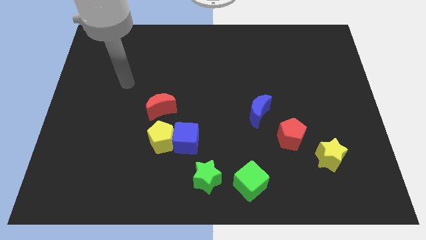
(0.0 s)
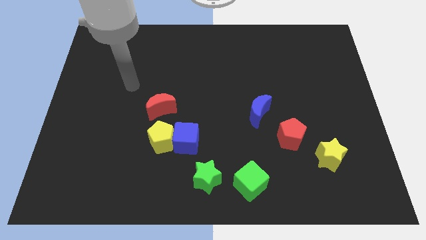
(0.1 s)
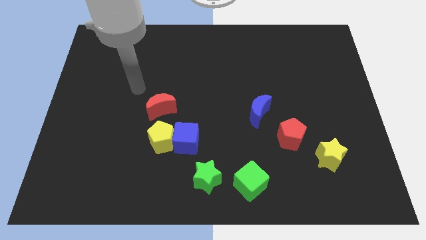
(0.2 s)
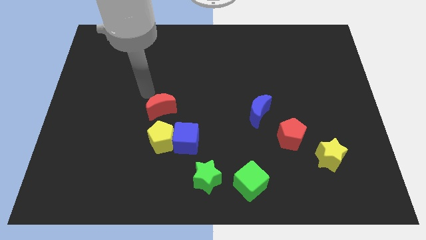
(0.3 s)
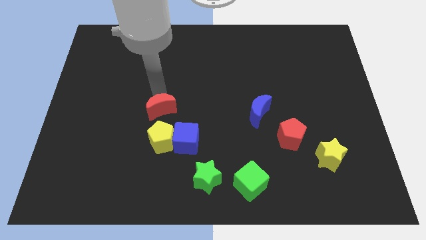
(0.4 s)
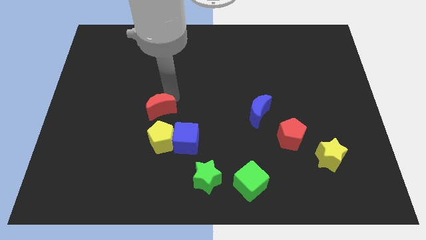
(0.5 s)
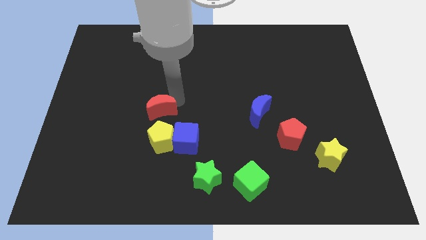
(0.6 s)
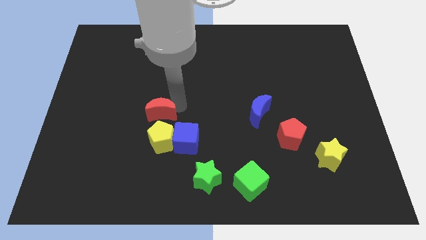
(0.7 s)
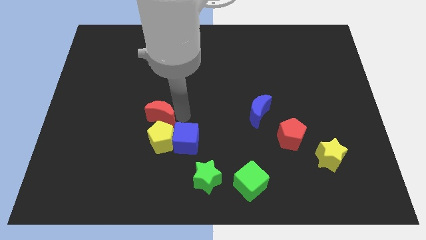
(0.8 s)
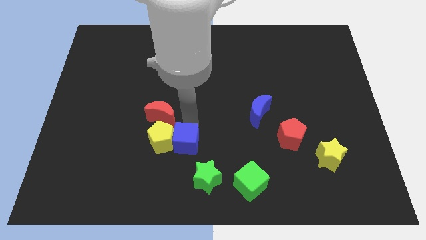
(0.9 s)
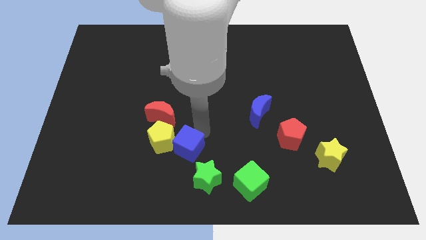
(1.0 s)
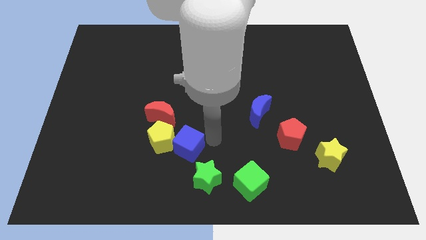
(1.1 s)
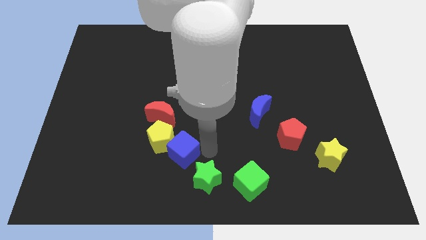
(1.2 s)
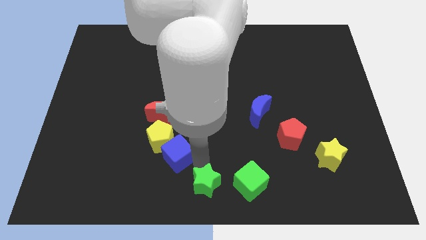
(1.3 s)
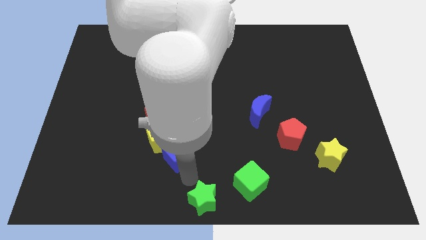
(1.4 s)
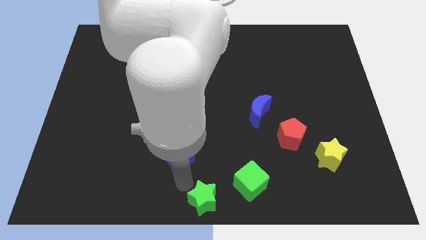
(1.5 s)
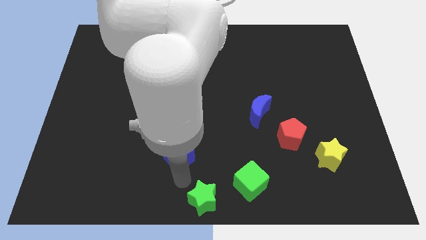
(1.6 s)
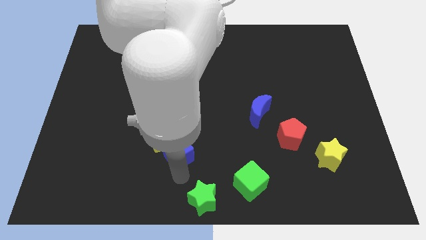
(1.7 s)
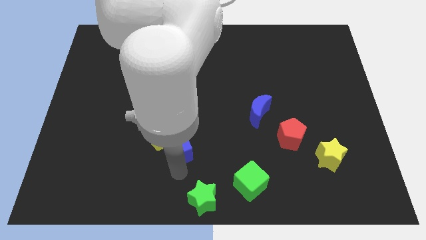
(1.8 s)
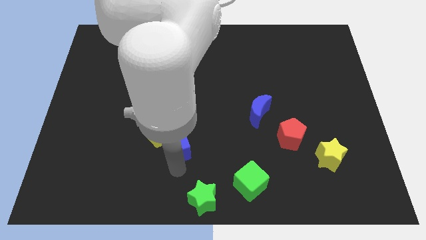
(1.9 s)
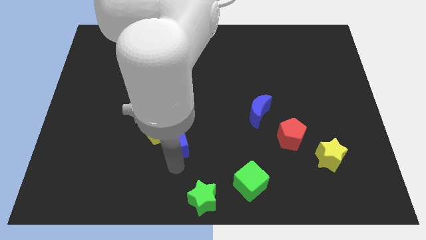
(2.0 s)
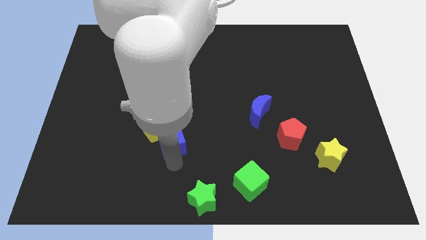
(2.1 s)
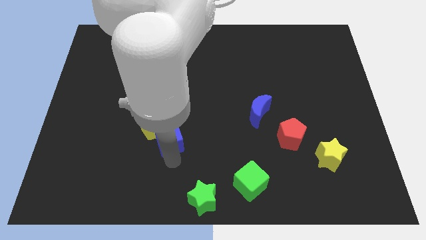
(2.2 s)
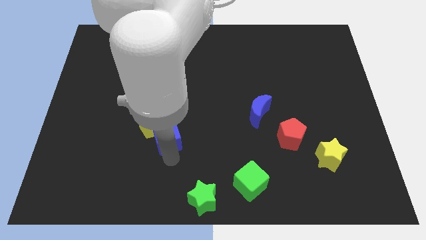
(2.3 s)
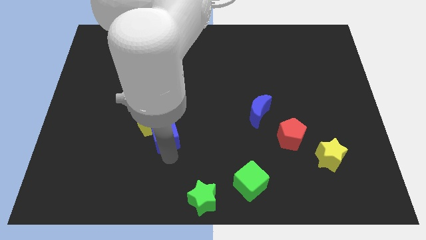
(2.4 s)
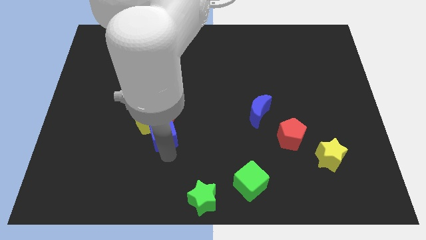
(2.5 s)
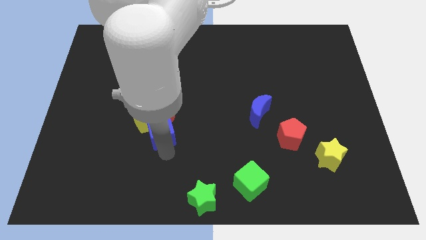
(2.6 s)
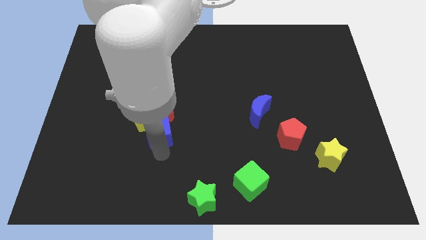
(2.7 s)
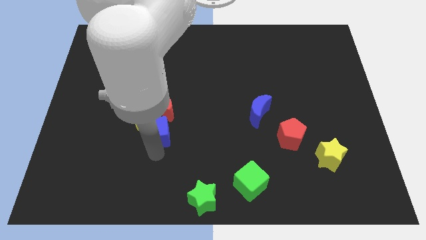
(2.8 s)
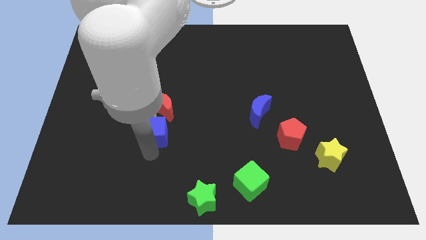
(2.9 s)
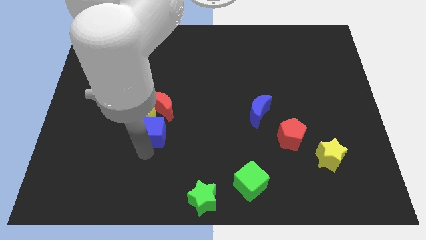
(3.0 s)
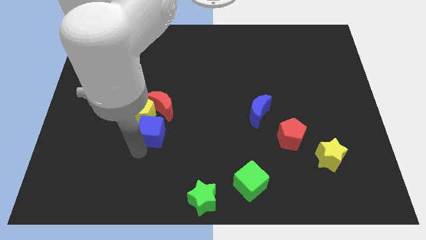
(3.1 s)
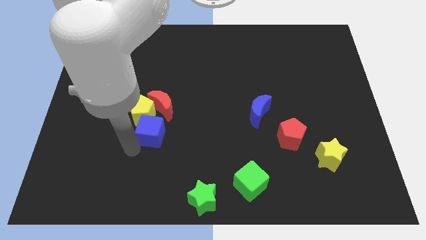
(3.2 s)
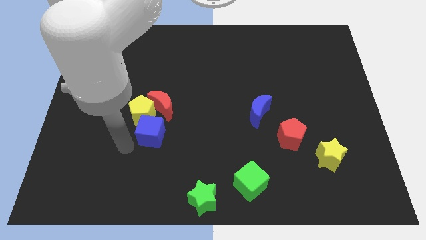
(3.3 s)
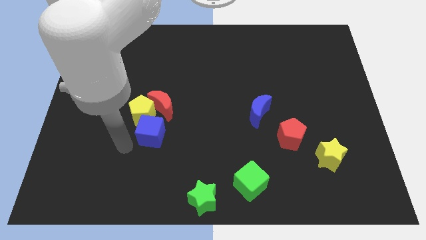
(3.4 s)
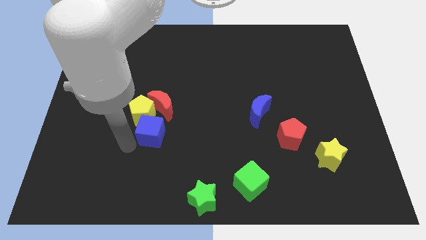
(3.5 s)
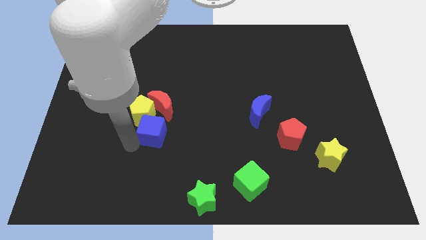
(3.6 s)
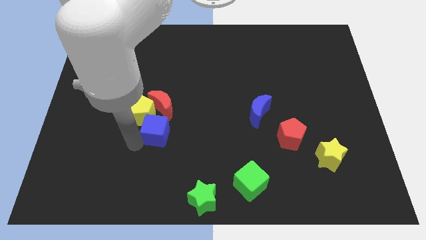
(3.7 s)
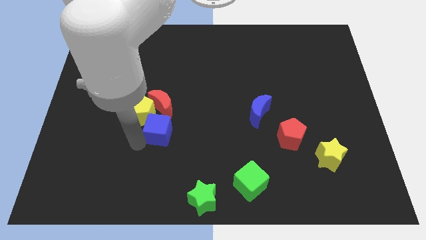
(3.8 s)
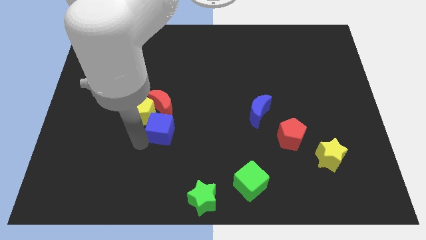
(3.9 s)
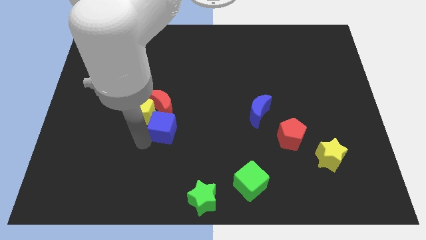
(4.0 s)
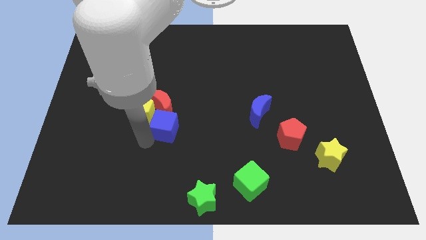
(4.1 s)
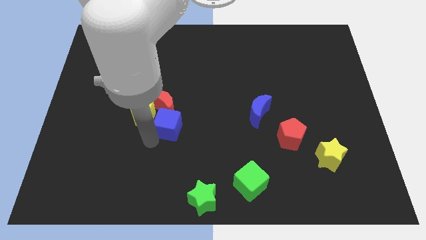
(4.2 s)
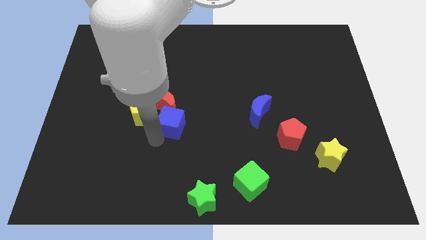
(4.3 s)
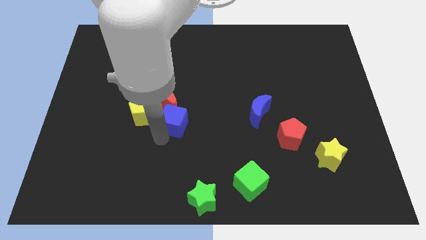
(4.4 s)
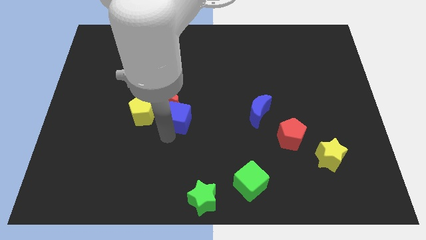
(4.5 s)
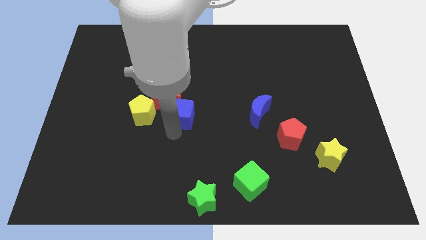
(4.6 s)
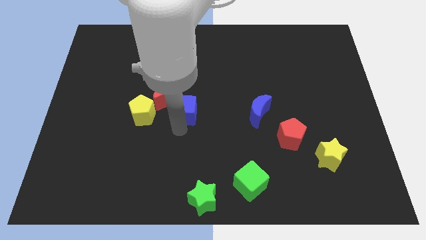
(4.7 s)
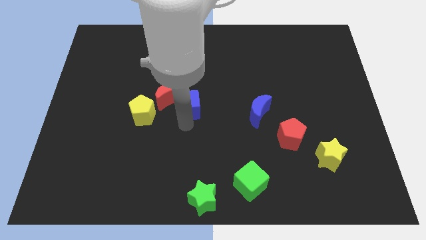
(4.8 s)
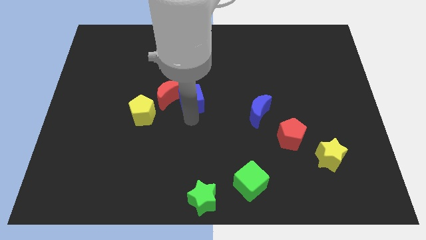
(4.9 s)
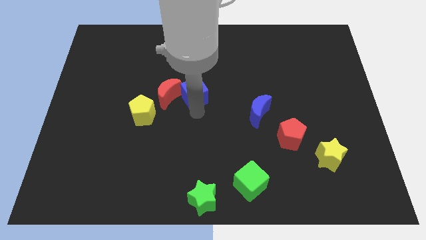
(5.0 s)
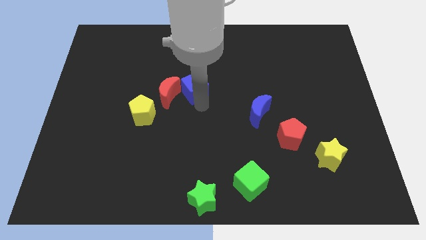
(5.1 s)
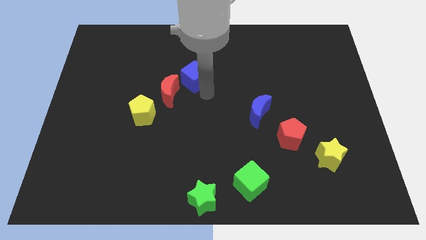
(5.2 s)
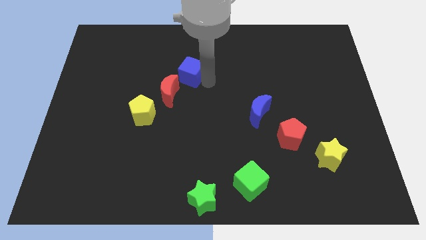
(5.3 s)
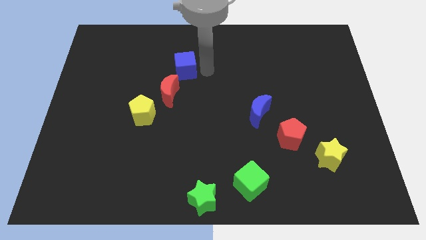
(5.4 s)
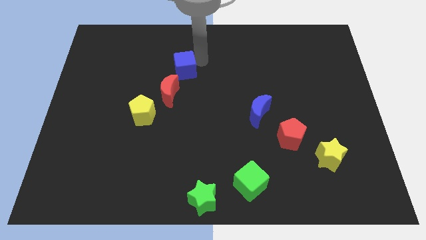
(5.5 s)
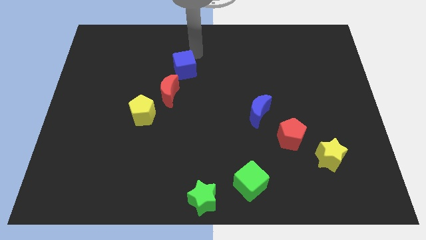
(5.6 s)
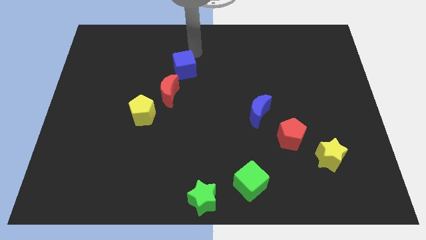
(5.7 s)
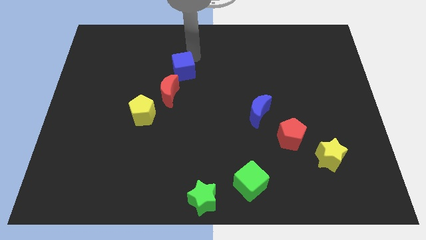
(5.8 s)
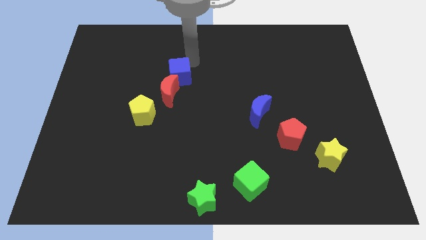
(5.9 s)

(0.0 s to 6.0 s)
push the blue cube a little bit diagonally upwards and to the left

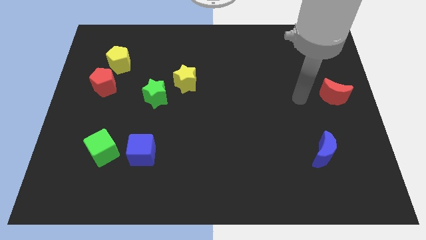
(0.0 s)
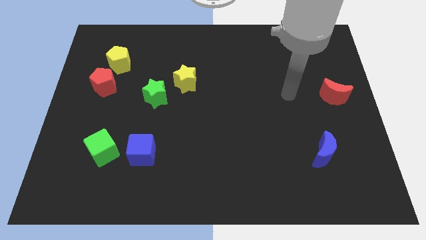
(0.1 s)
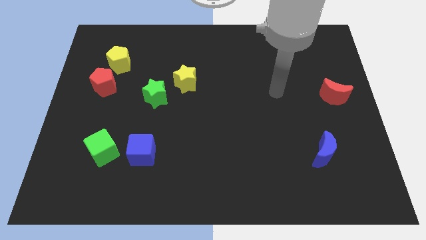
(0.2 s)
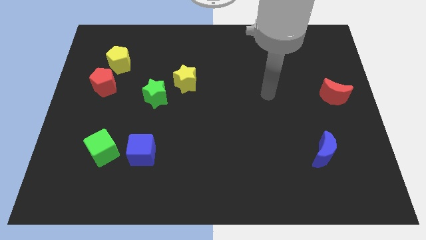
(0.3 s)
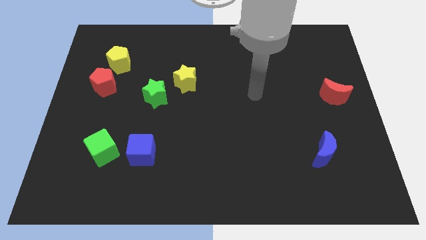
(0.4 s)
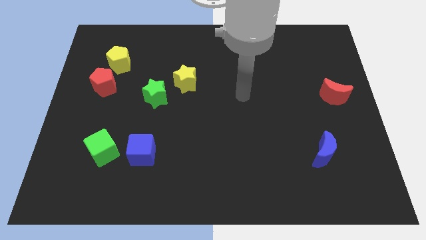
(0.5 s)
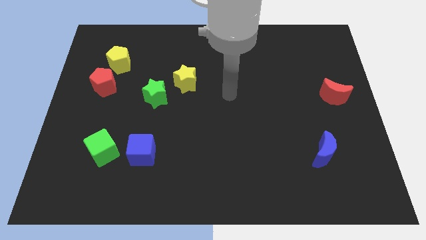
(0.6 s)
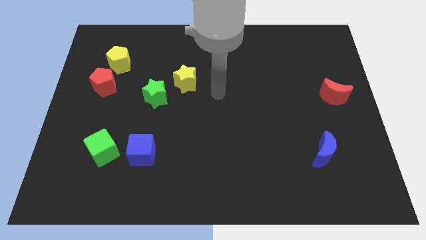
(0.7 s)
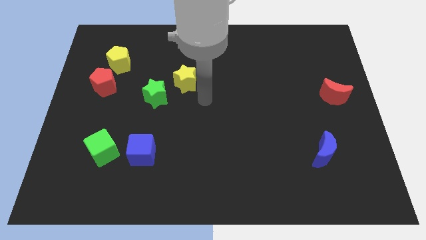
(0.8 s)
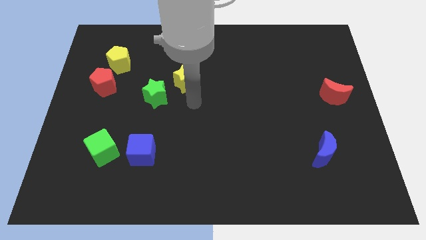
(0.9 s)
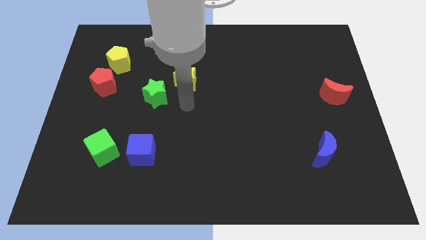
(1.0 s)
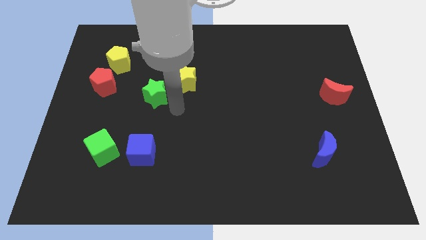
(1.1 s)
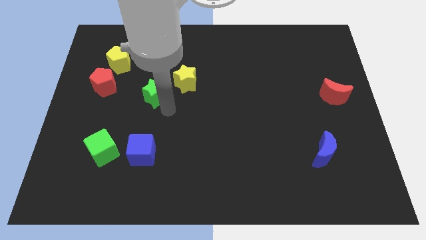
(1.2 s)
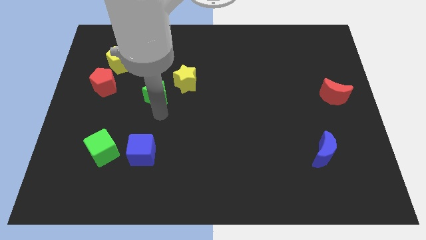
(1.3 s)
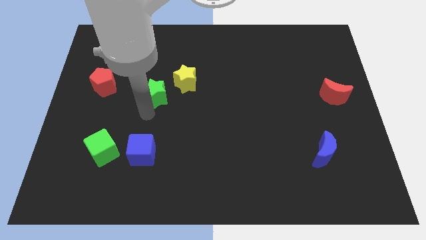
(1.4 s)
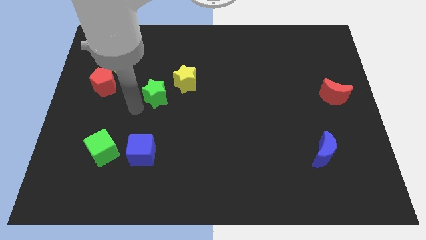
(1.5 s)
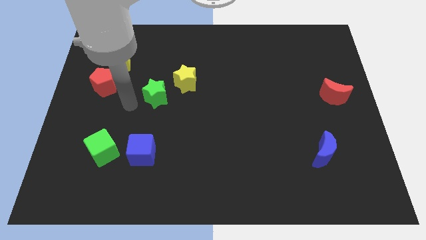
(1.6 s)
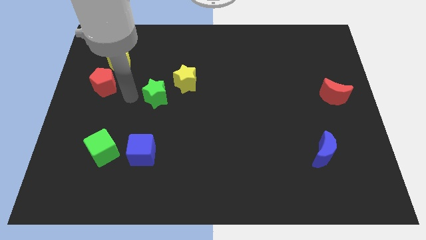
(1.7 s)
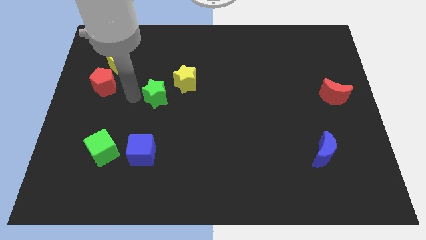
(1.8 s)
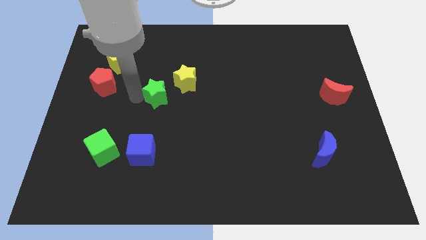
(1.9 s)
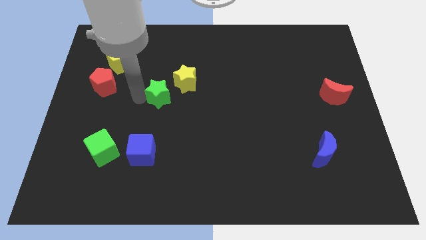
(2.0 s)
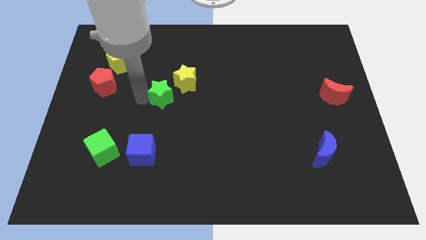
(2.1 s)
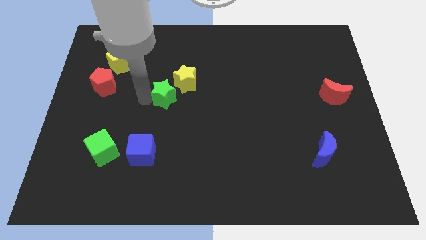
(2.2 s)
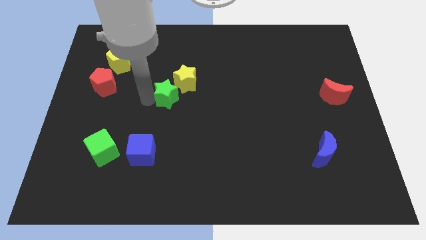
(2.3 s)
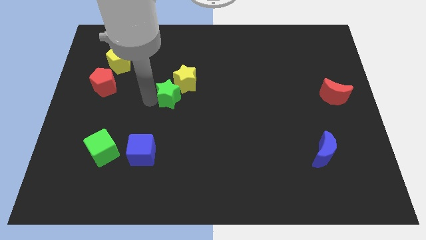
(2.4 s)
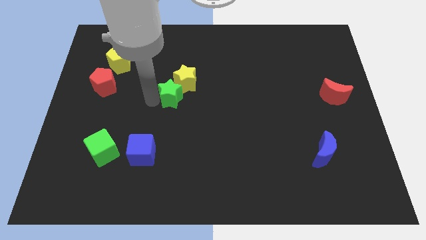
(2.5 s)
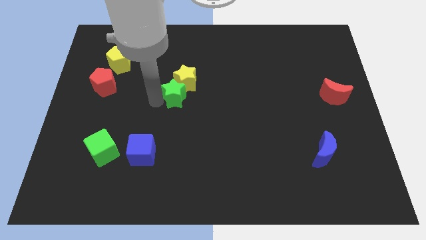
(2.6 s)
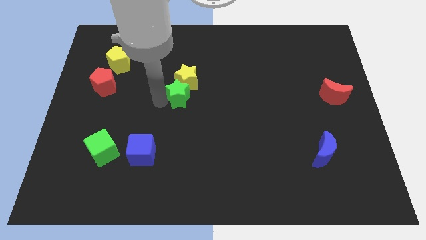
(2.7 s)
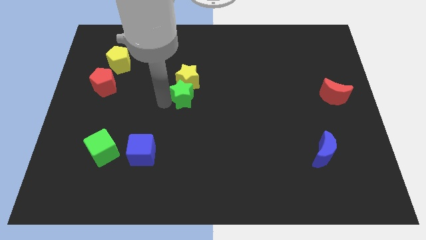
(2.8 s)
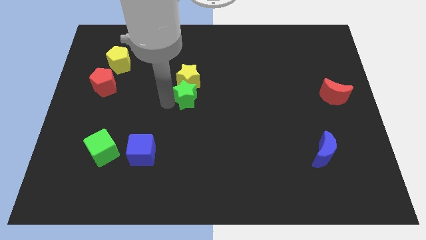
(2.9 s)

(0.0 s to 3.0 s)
slide the green star somewhat to the right
